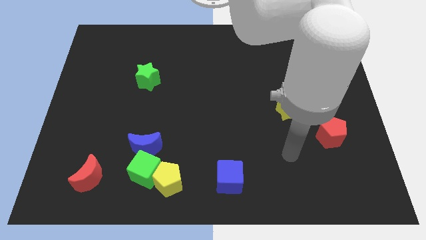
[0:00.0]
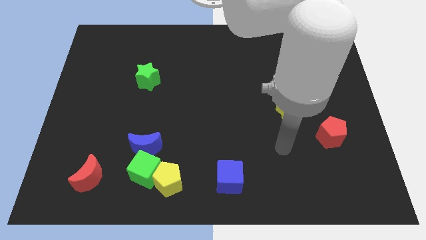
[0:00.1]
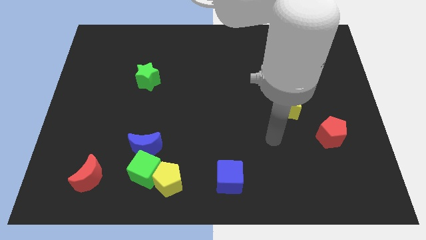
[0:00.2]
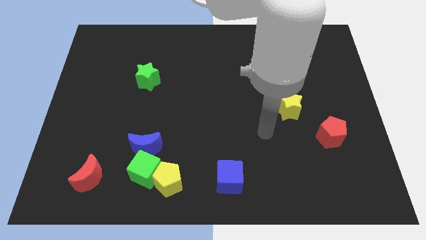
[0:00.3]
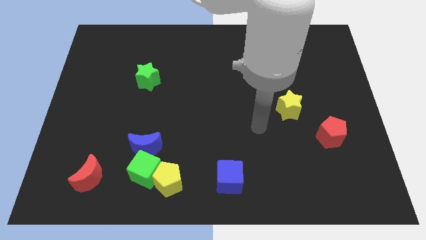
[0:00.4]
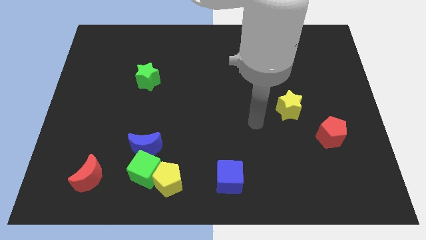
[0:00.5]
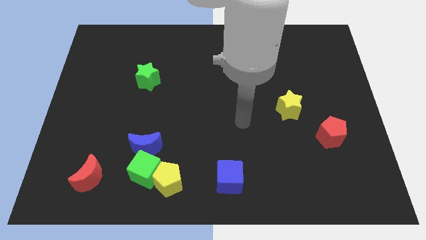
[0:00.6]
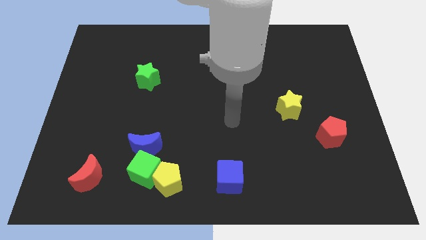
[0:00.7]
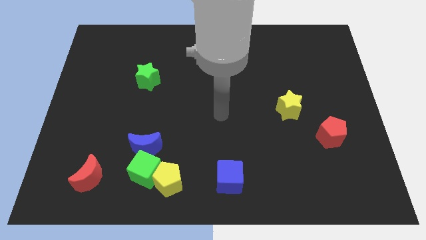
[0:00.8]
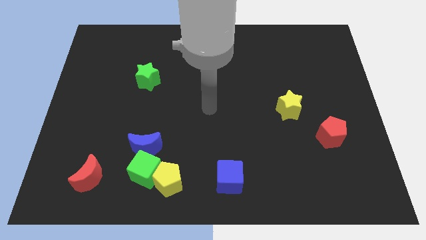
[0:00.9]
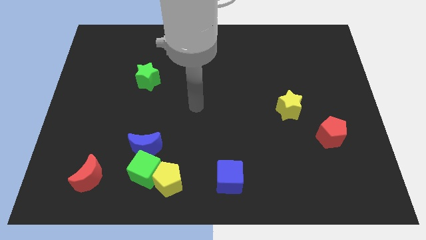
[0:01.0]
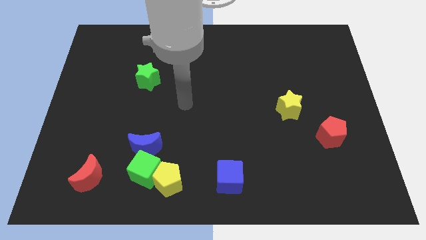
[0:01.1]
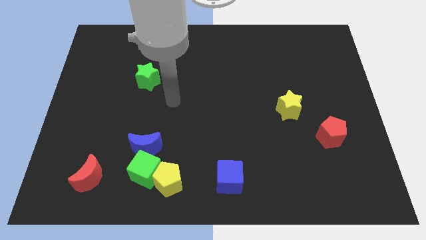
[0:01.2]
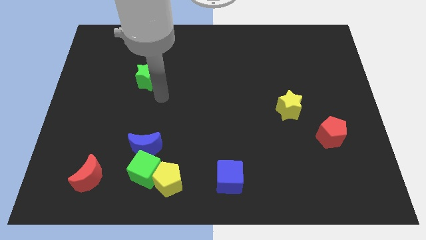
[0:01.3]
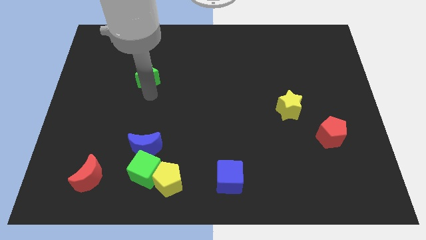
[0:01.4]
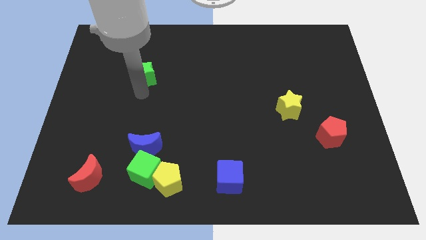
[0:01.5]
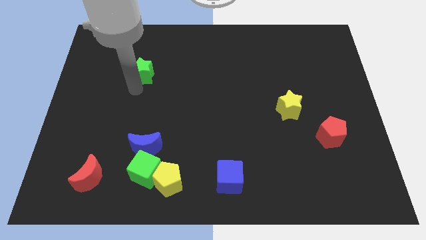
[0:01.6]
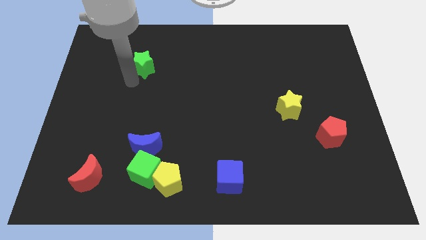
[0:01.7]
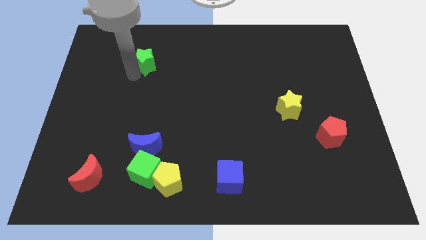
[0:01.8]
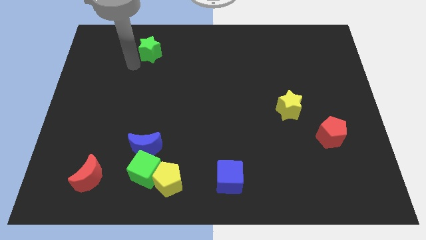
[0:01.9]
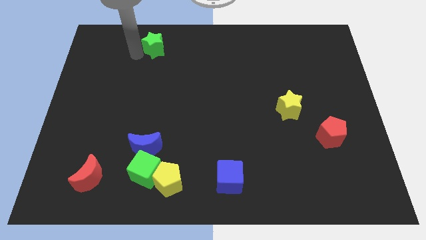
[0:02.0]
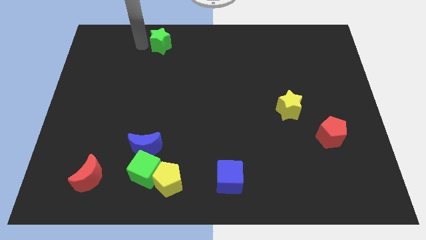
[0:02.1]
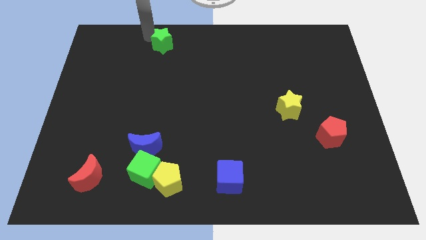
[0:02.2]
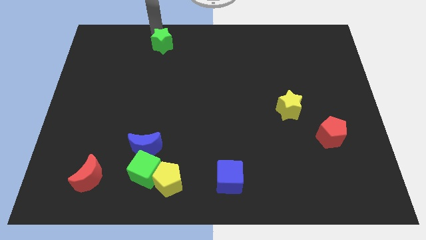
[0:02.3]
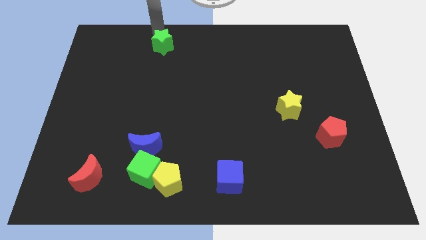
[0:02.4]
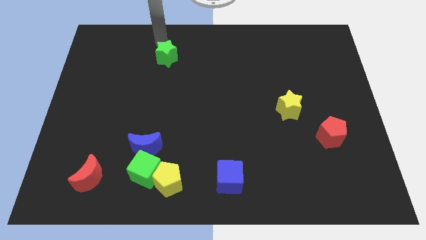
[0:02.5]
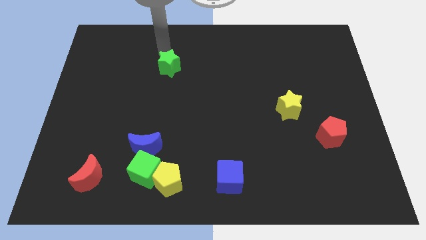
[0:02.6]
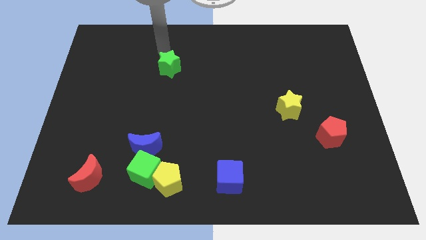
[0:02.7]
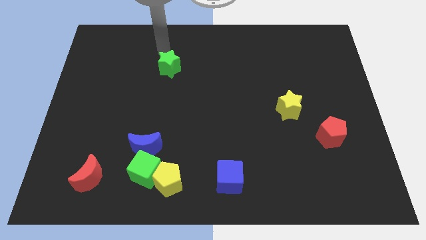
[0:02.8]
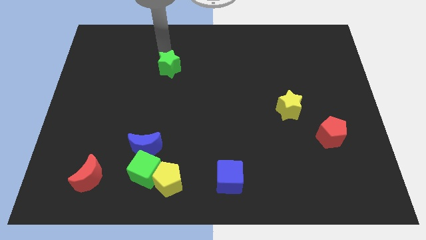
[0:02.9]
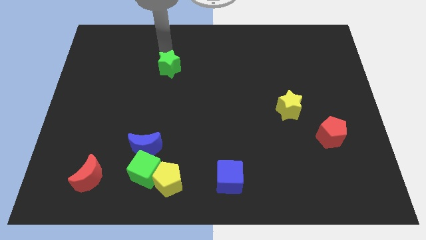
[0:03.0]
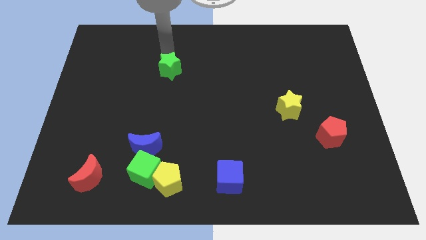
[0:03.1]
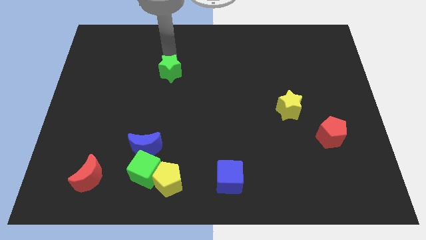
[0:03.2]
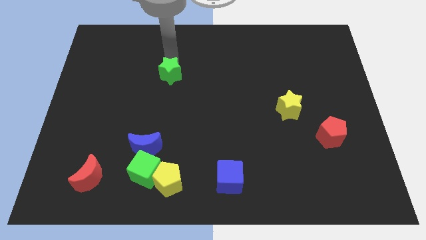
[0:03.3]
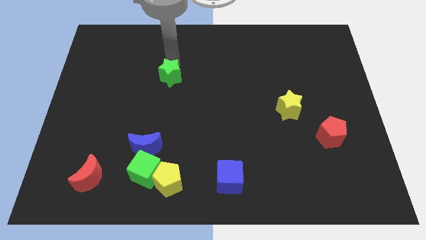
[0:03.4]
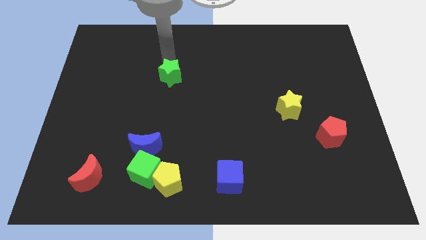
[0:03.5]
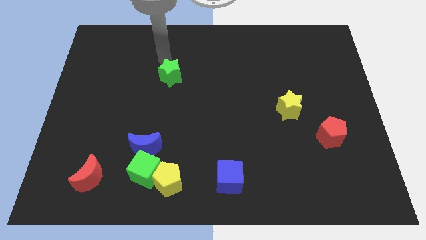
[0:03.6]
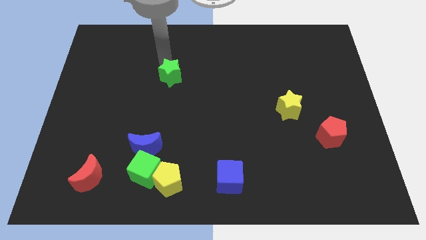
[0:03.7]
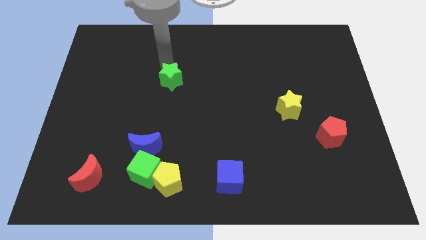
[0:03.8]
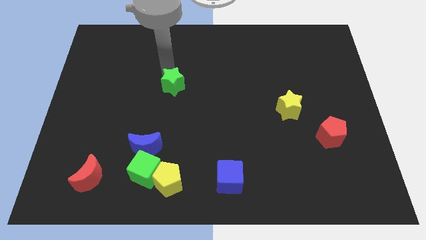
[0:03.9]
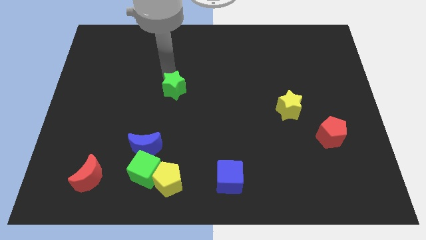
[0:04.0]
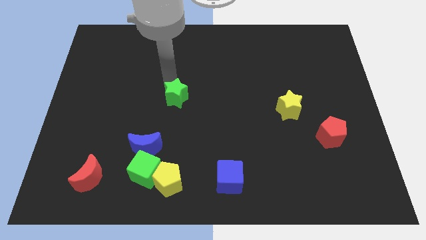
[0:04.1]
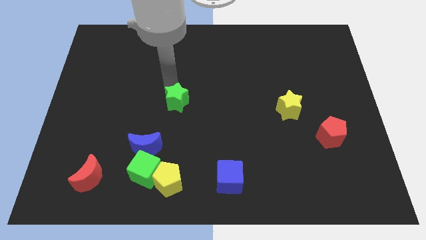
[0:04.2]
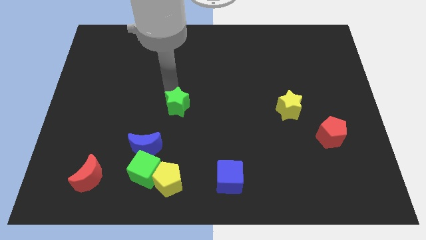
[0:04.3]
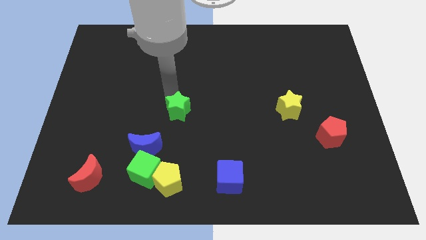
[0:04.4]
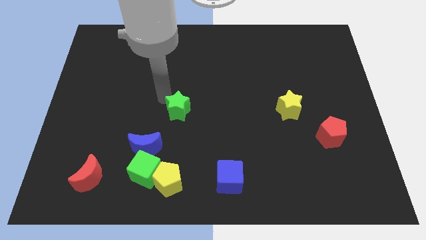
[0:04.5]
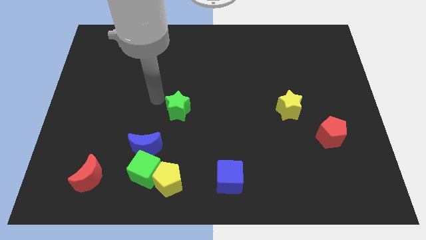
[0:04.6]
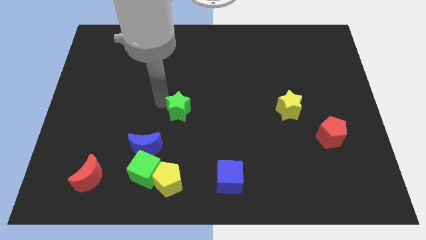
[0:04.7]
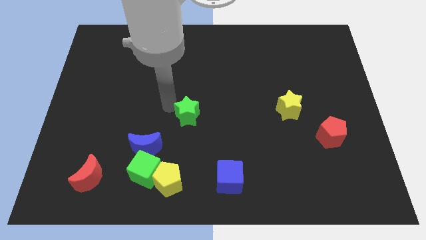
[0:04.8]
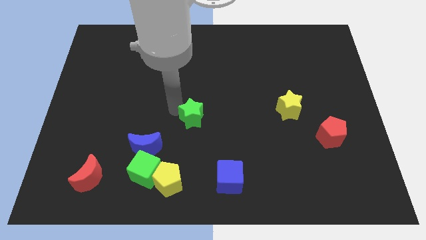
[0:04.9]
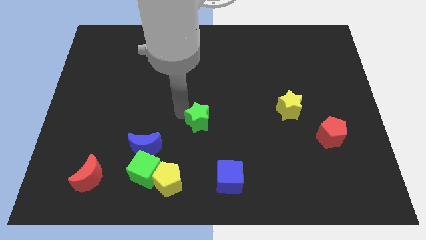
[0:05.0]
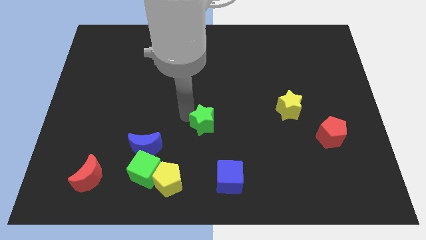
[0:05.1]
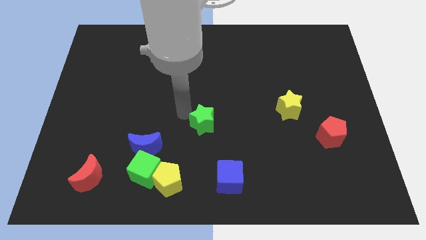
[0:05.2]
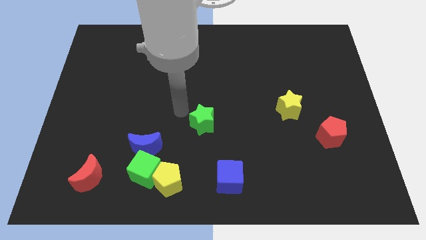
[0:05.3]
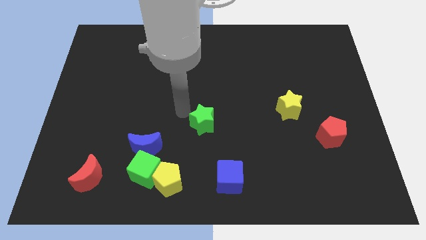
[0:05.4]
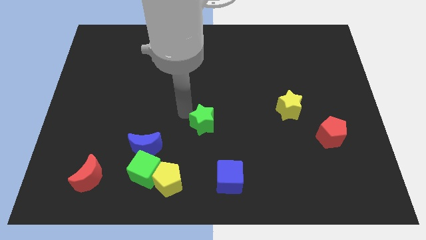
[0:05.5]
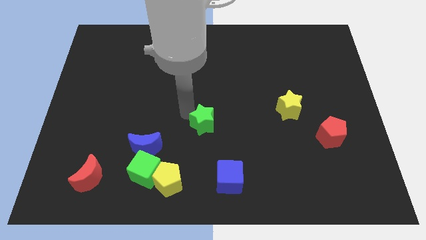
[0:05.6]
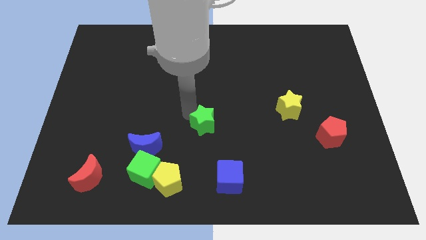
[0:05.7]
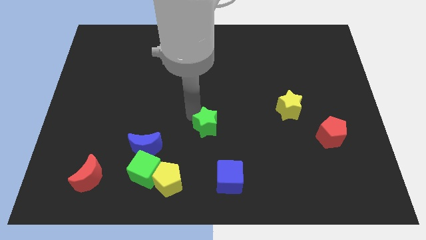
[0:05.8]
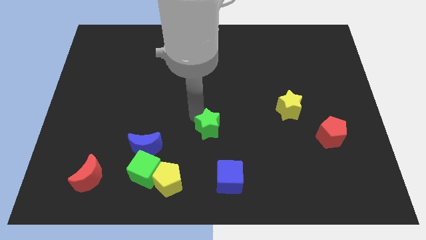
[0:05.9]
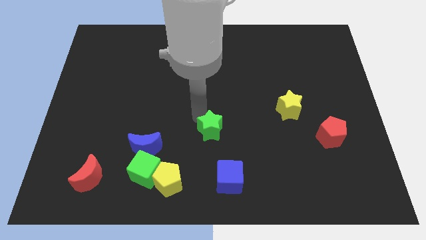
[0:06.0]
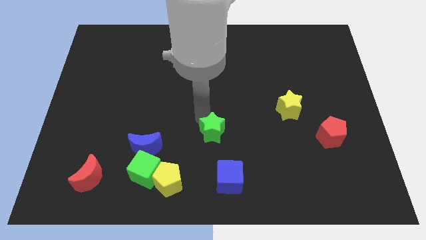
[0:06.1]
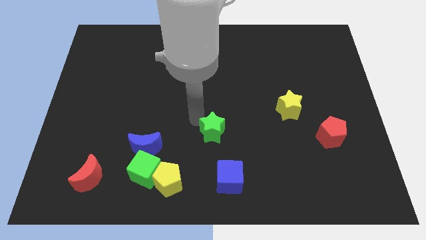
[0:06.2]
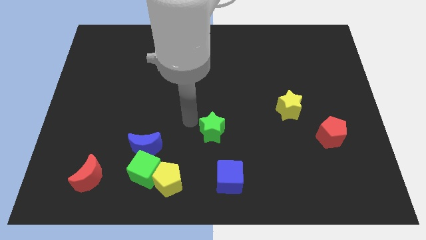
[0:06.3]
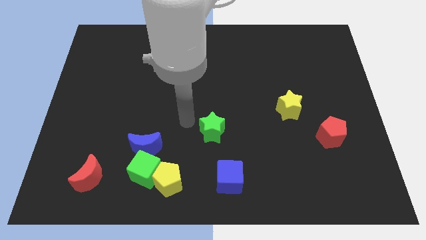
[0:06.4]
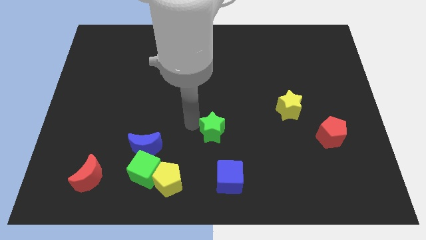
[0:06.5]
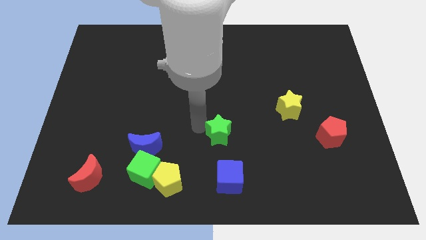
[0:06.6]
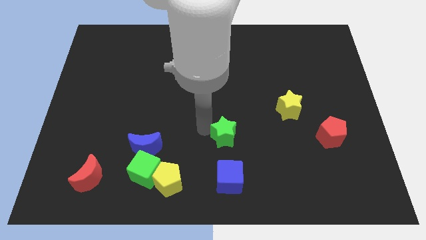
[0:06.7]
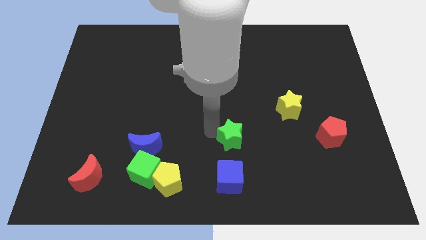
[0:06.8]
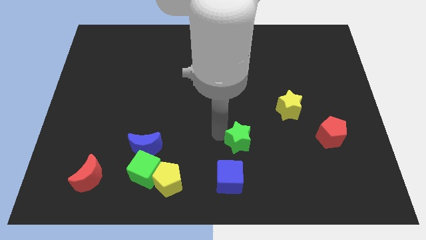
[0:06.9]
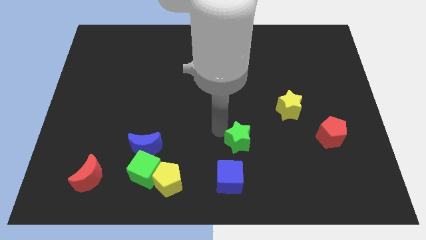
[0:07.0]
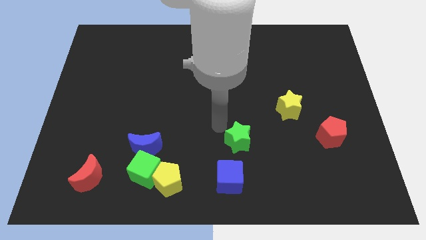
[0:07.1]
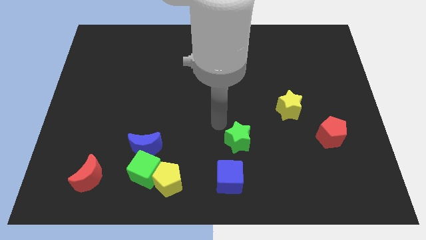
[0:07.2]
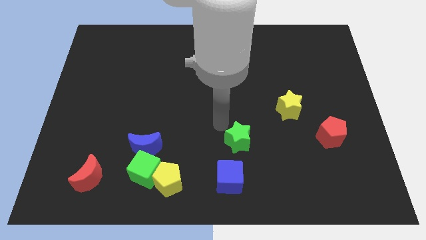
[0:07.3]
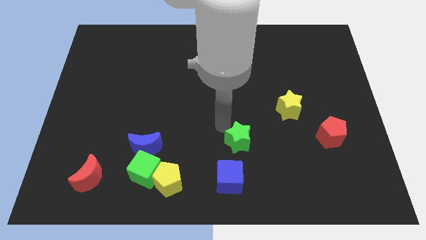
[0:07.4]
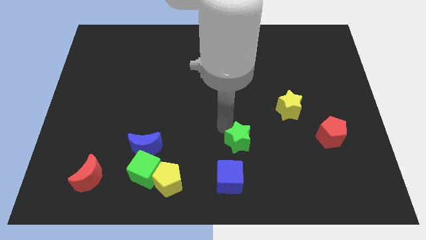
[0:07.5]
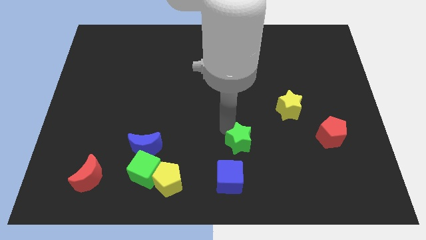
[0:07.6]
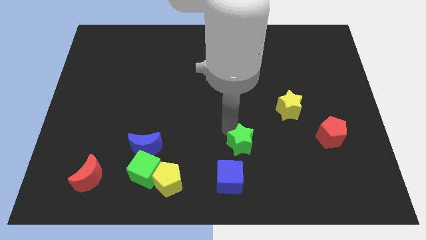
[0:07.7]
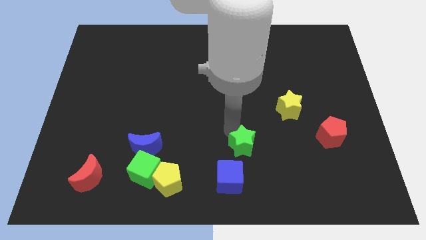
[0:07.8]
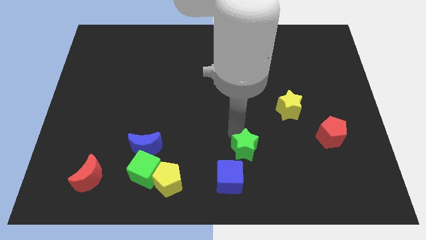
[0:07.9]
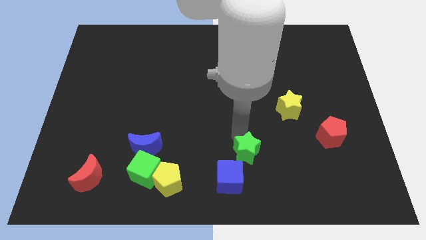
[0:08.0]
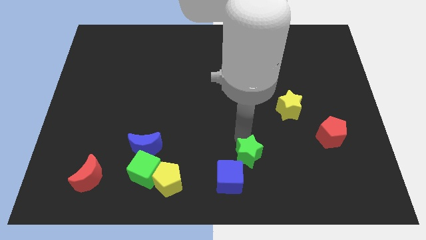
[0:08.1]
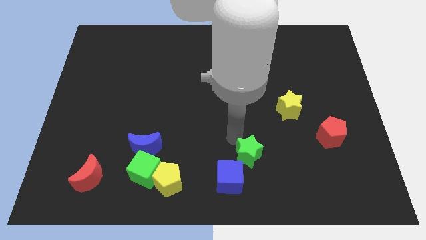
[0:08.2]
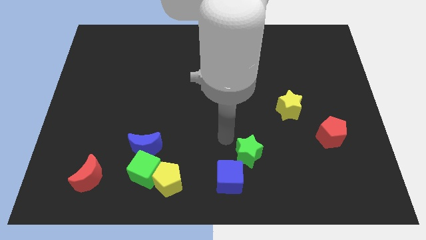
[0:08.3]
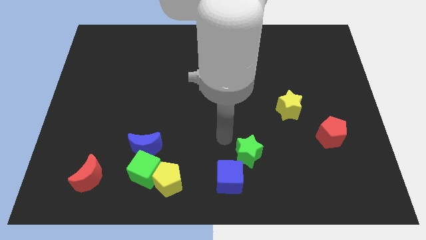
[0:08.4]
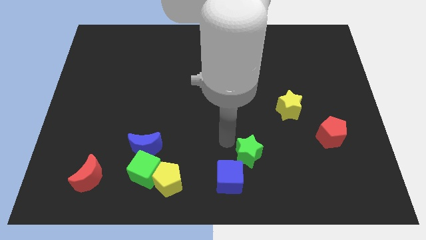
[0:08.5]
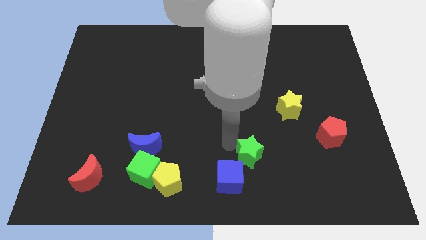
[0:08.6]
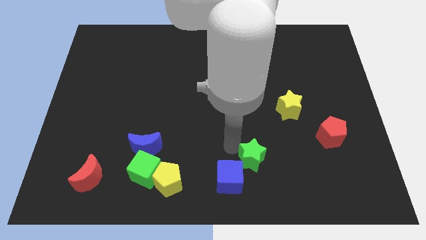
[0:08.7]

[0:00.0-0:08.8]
push the green star right of the blue cube
